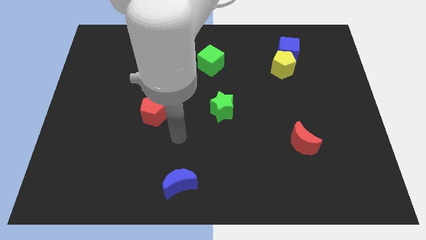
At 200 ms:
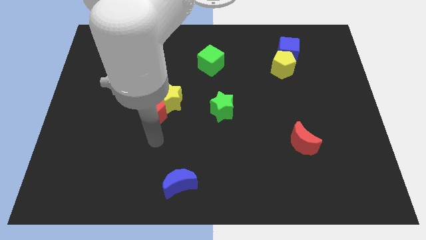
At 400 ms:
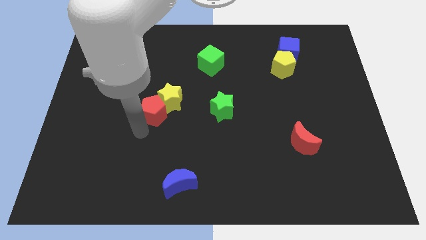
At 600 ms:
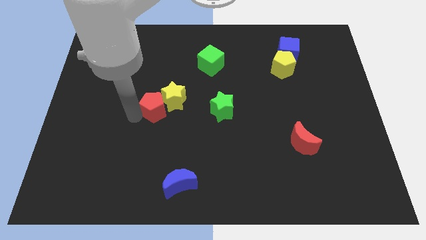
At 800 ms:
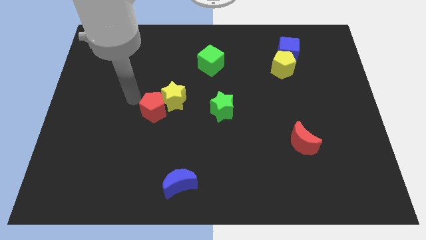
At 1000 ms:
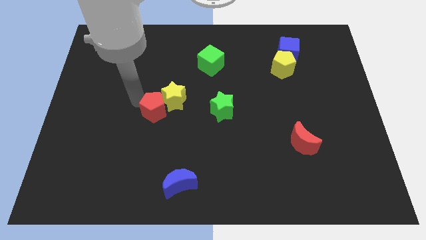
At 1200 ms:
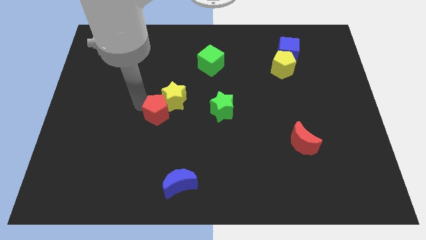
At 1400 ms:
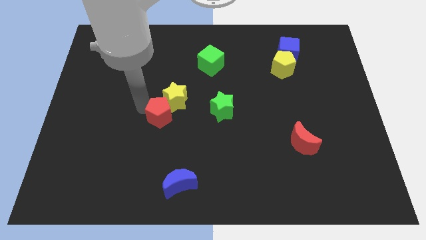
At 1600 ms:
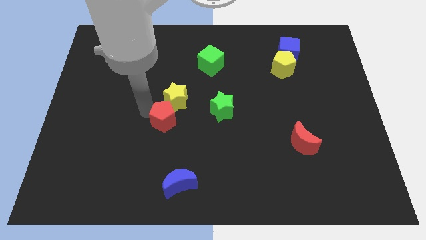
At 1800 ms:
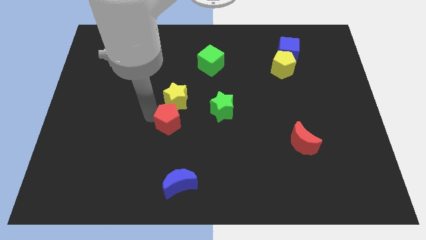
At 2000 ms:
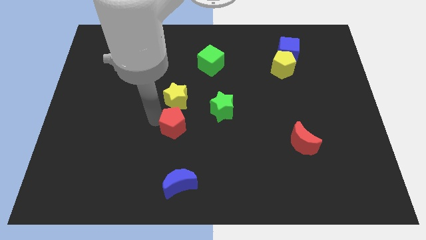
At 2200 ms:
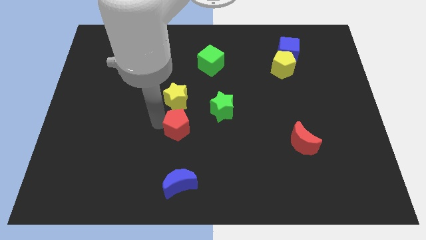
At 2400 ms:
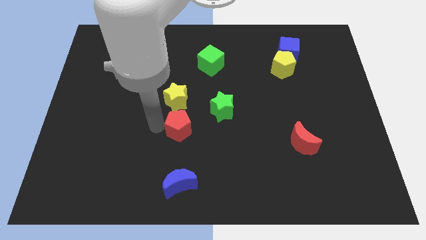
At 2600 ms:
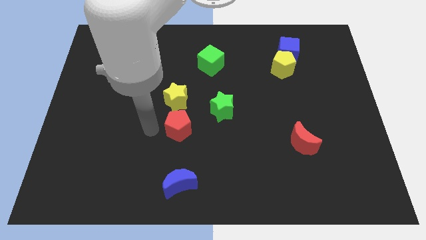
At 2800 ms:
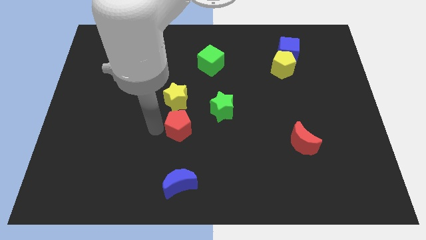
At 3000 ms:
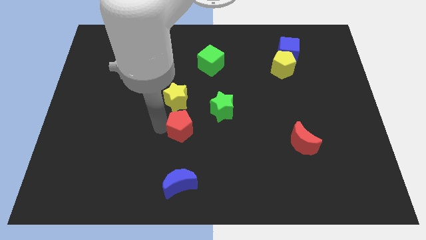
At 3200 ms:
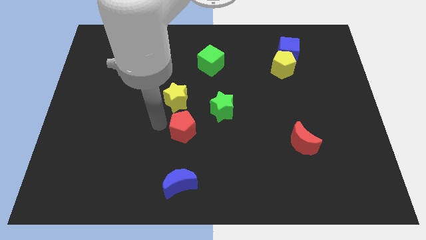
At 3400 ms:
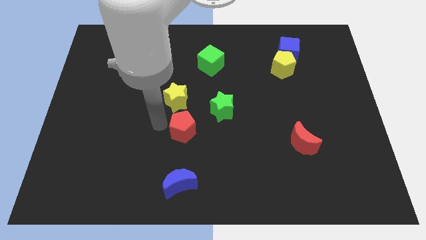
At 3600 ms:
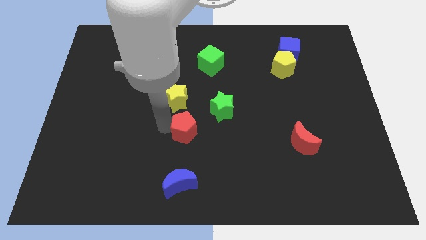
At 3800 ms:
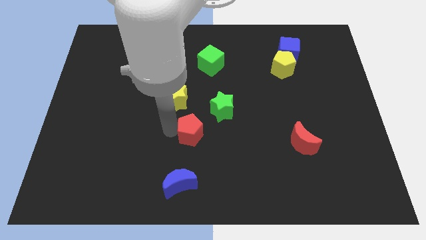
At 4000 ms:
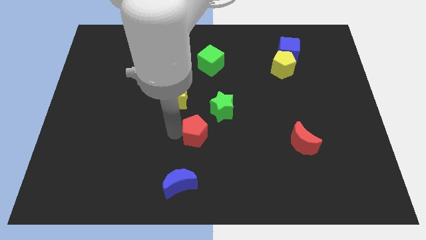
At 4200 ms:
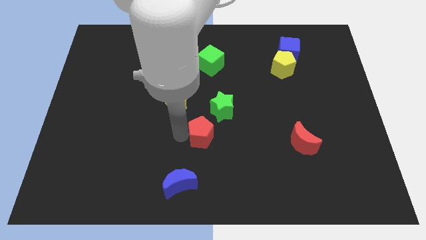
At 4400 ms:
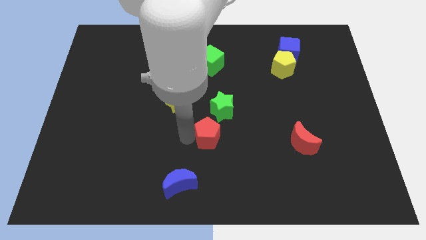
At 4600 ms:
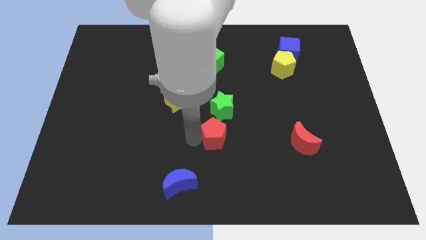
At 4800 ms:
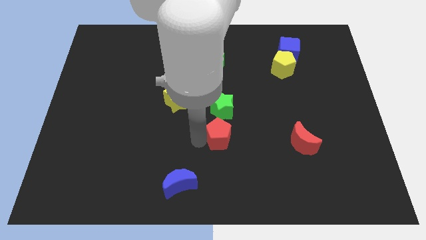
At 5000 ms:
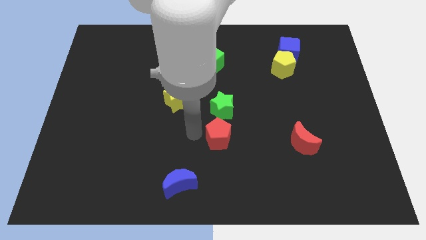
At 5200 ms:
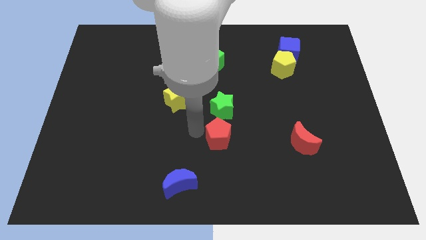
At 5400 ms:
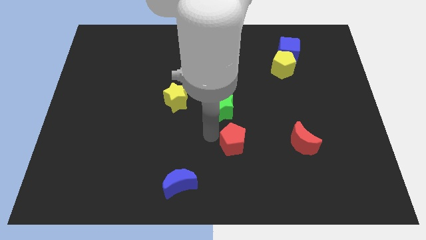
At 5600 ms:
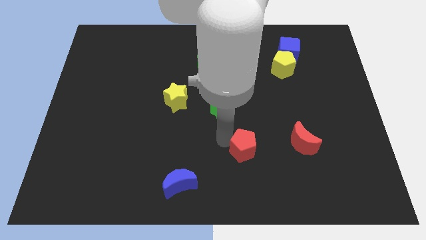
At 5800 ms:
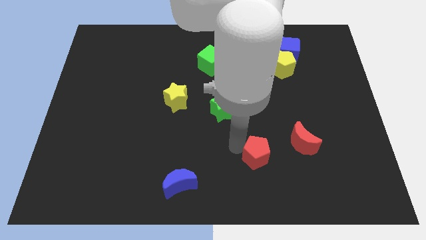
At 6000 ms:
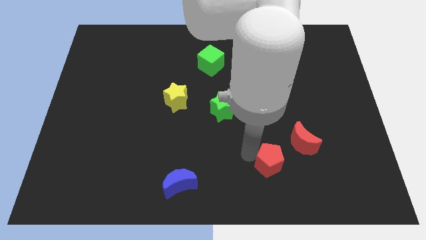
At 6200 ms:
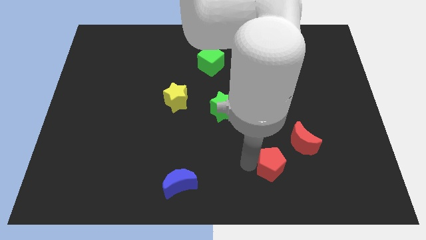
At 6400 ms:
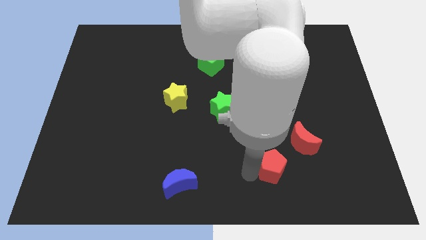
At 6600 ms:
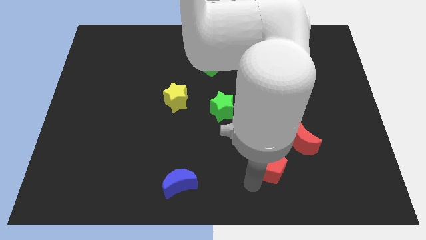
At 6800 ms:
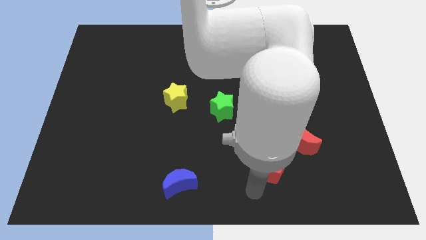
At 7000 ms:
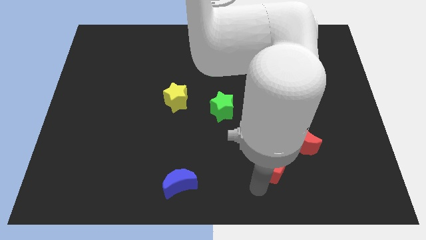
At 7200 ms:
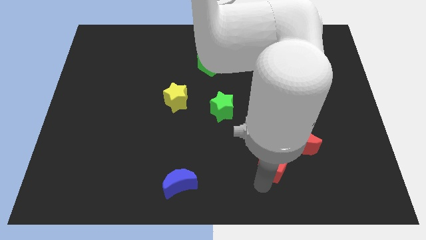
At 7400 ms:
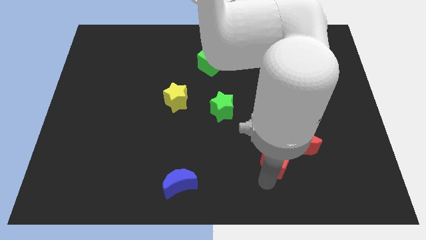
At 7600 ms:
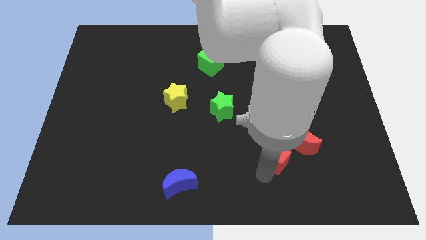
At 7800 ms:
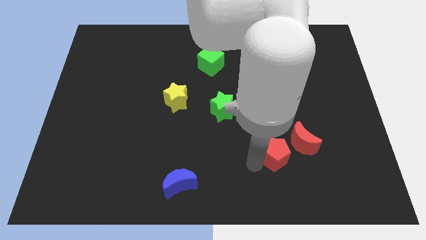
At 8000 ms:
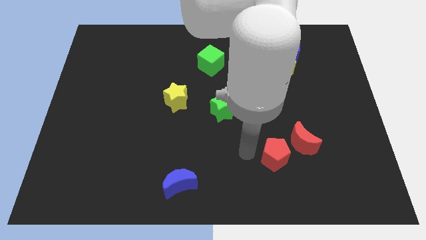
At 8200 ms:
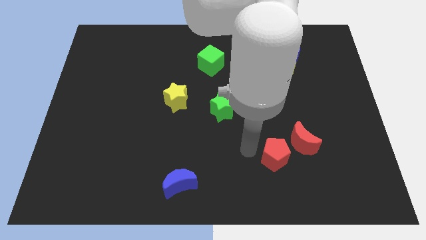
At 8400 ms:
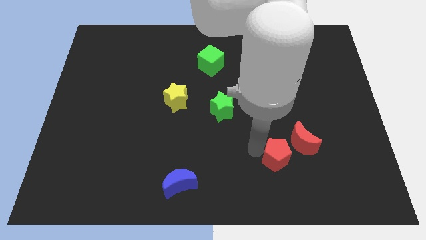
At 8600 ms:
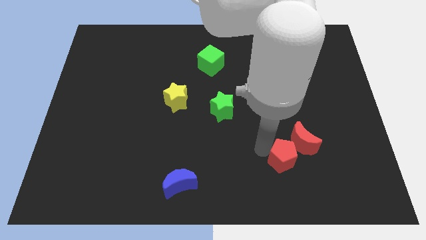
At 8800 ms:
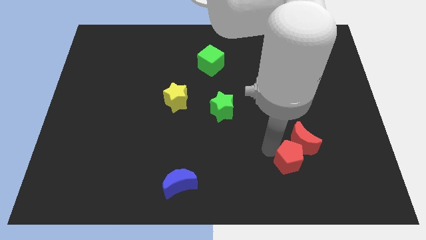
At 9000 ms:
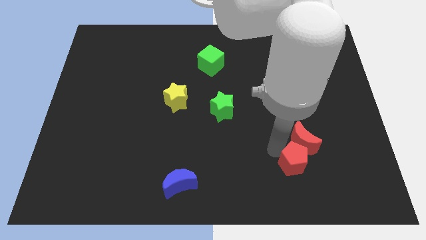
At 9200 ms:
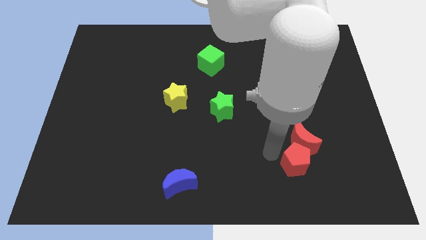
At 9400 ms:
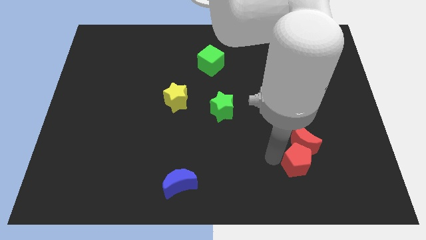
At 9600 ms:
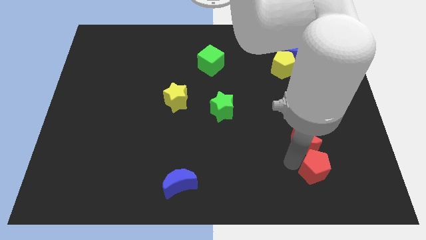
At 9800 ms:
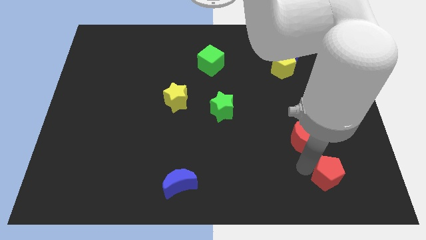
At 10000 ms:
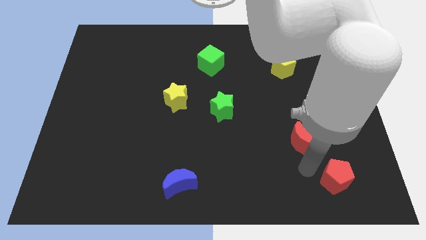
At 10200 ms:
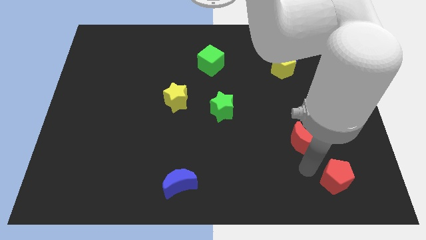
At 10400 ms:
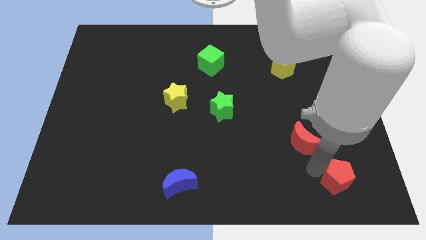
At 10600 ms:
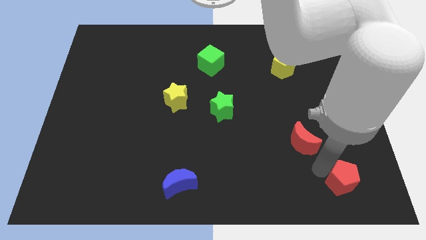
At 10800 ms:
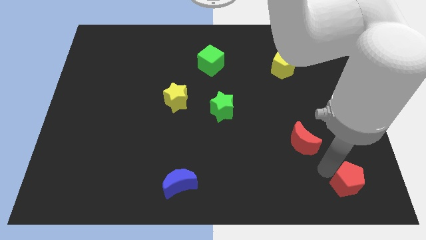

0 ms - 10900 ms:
slide the red pentagon to the bottom right of the board

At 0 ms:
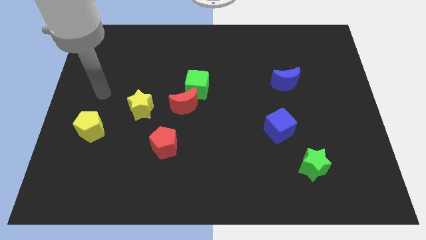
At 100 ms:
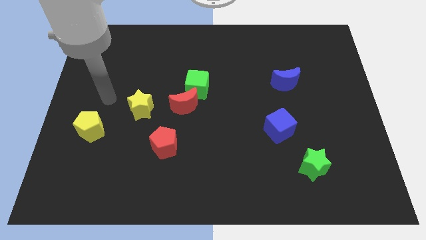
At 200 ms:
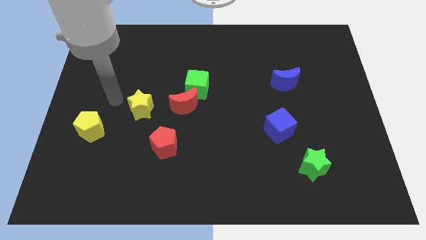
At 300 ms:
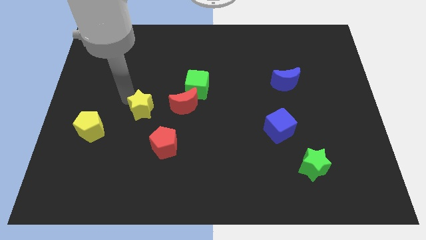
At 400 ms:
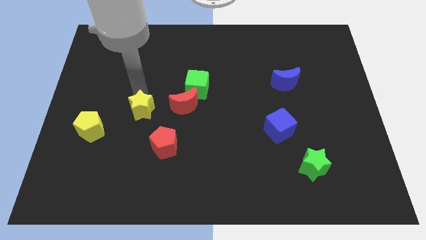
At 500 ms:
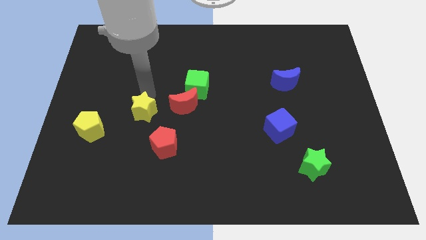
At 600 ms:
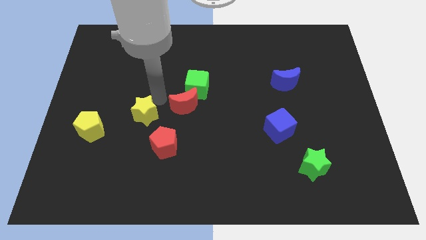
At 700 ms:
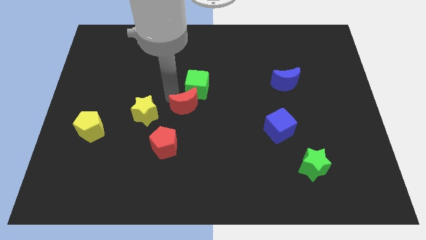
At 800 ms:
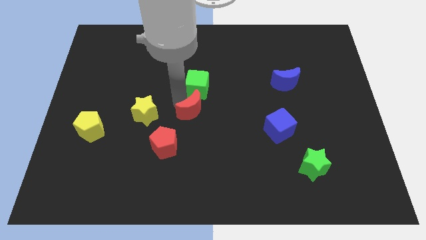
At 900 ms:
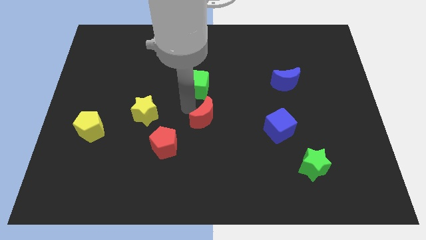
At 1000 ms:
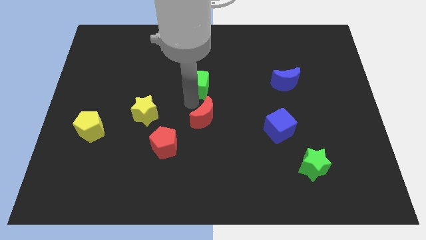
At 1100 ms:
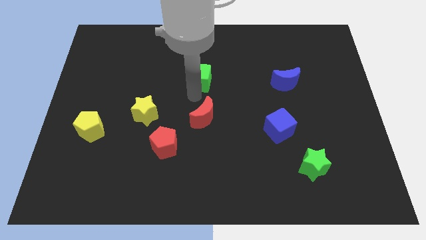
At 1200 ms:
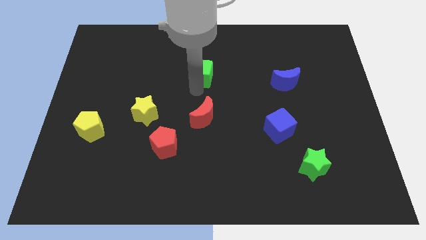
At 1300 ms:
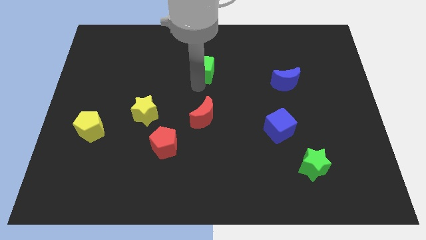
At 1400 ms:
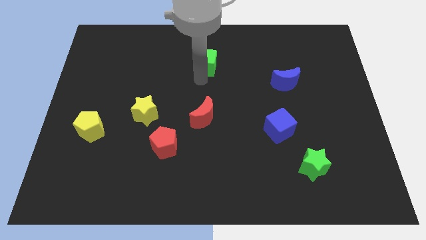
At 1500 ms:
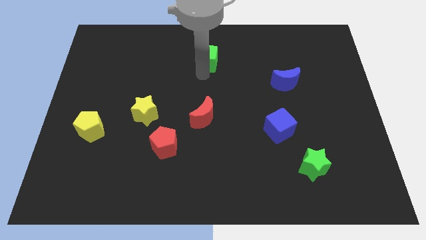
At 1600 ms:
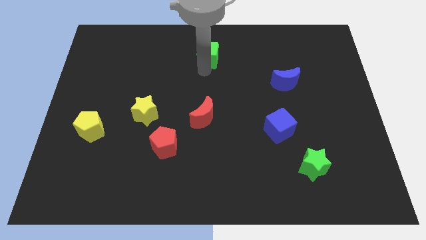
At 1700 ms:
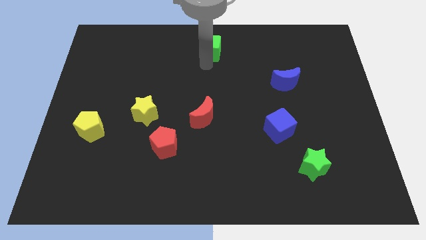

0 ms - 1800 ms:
move the green cube to the top
